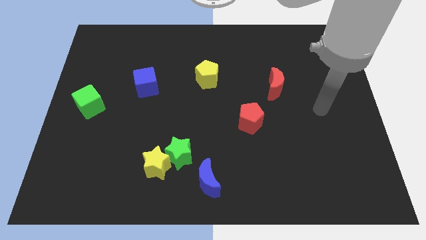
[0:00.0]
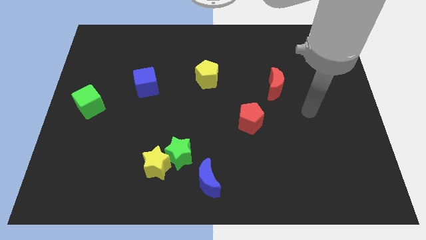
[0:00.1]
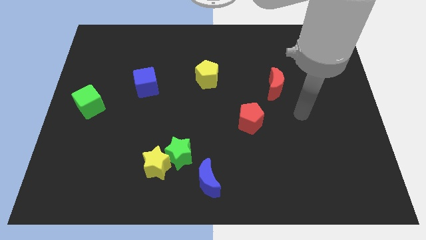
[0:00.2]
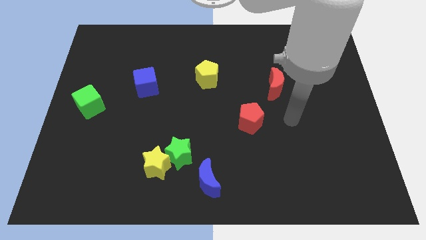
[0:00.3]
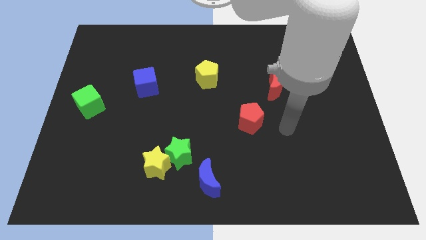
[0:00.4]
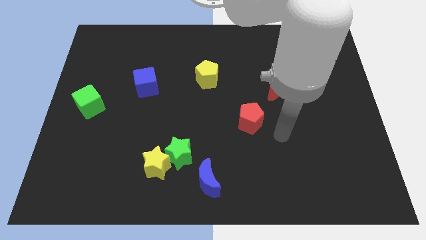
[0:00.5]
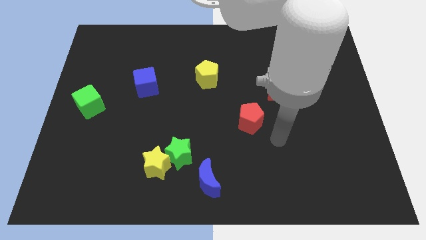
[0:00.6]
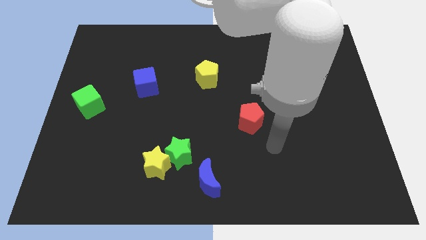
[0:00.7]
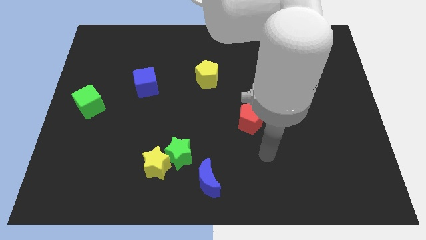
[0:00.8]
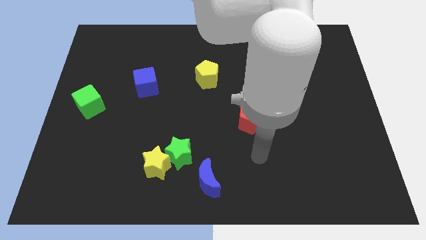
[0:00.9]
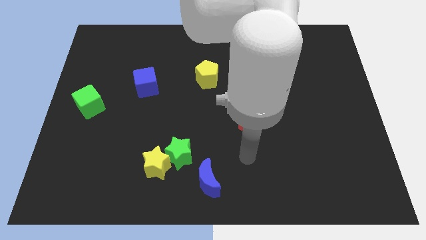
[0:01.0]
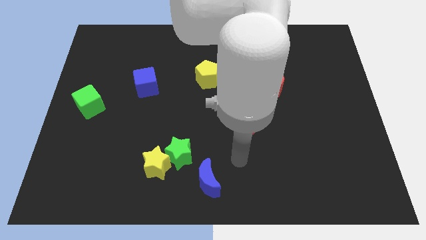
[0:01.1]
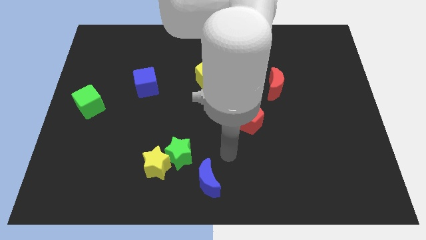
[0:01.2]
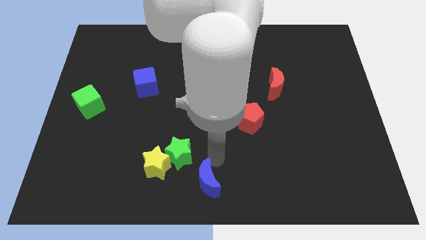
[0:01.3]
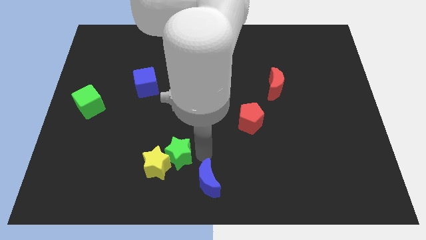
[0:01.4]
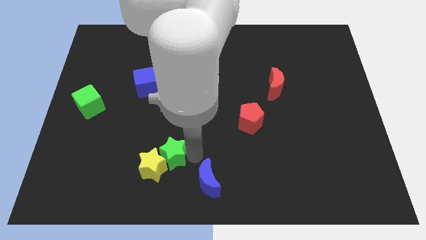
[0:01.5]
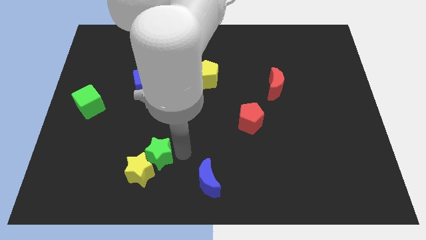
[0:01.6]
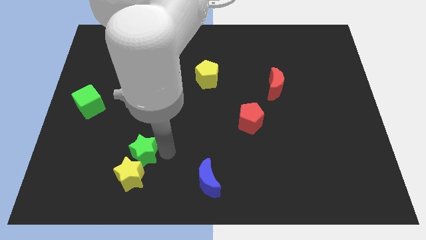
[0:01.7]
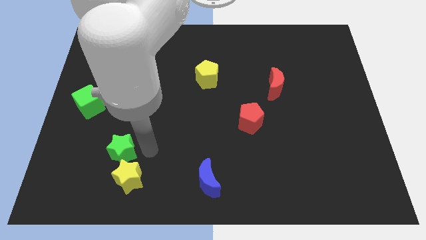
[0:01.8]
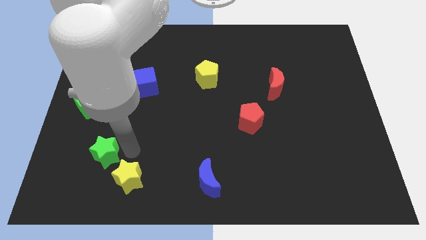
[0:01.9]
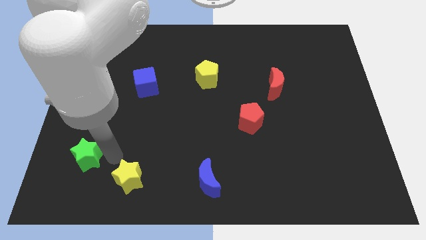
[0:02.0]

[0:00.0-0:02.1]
move the yellow star away from the green star

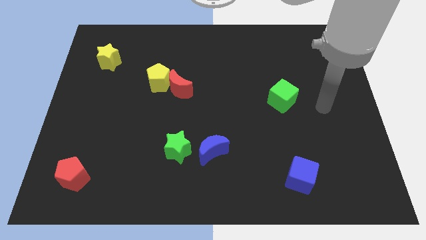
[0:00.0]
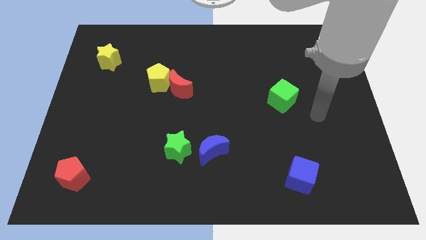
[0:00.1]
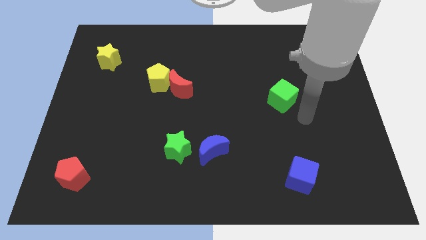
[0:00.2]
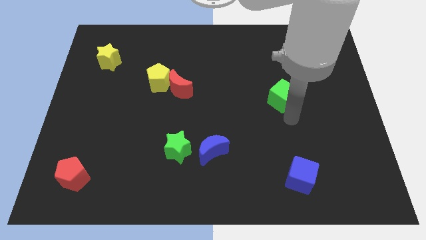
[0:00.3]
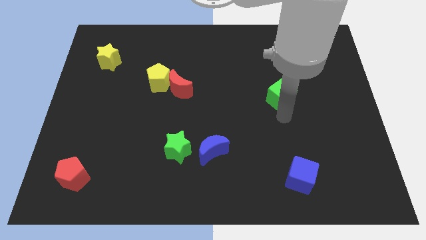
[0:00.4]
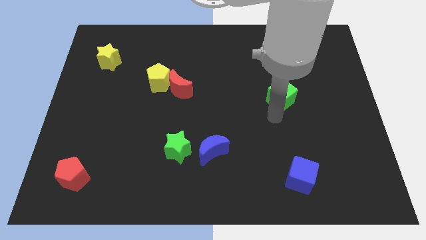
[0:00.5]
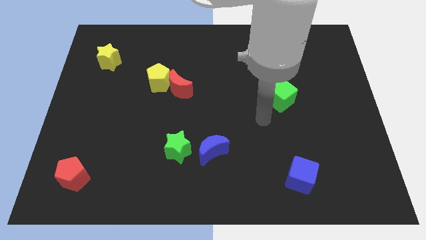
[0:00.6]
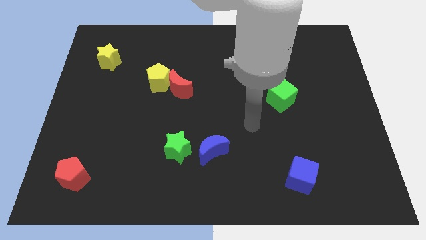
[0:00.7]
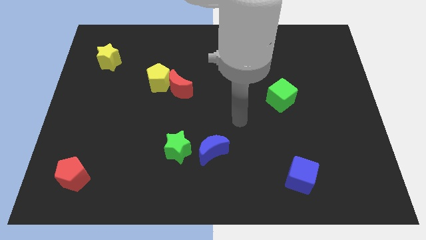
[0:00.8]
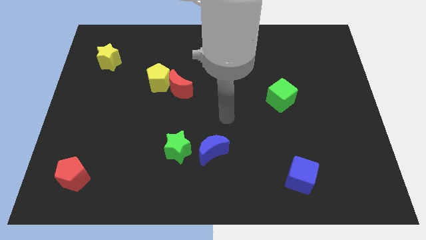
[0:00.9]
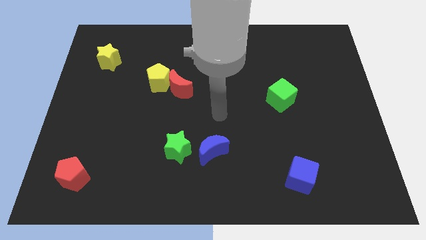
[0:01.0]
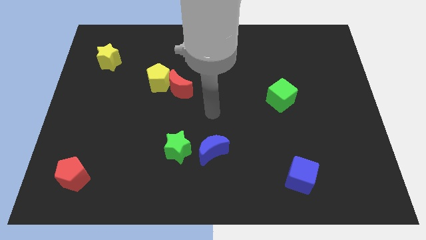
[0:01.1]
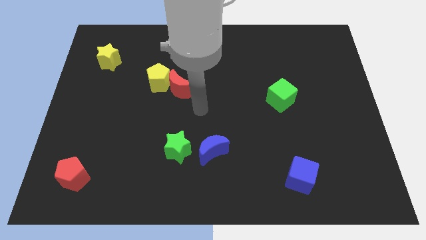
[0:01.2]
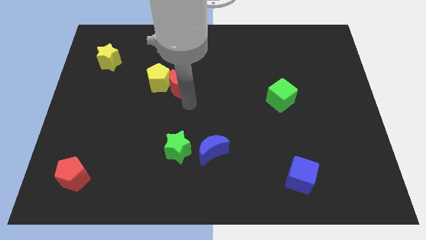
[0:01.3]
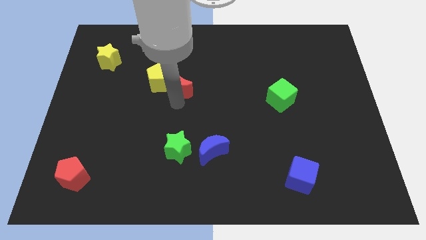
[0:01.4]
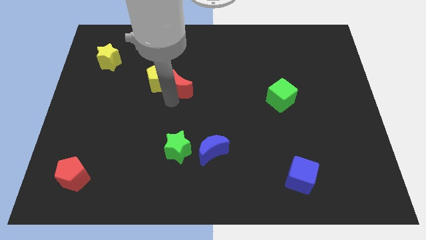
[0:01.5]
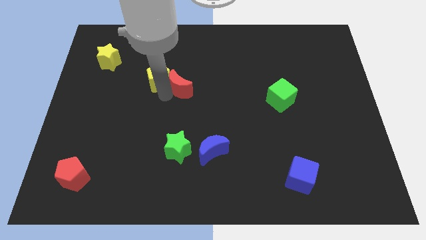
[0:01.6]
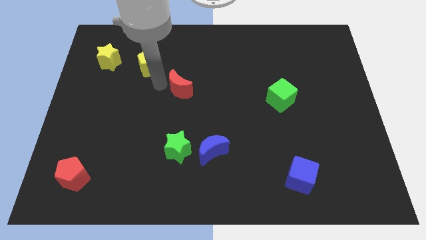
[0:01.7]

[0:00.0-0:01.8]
pull the red moon apart from the yellow pentagon

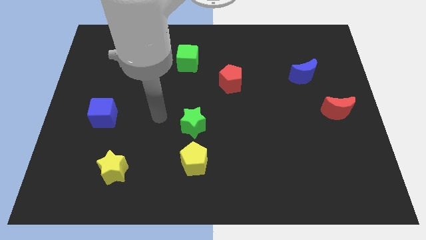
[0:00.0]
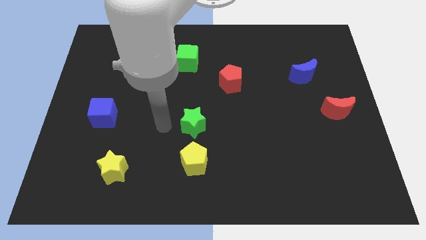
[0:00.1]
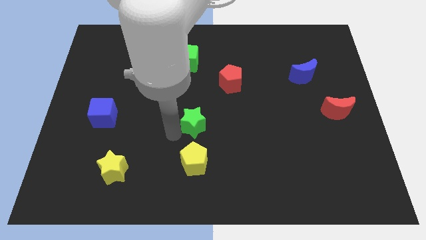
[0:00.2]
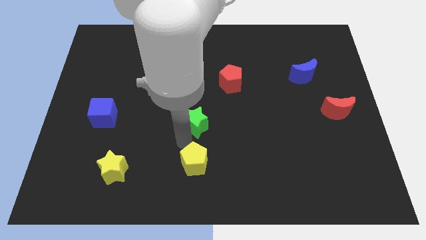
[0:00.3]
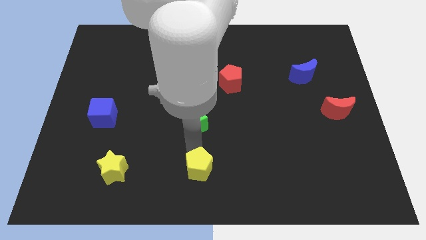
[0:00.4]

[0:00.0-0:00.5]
separate the green star from the yellow pentagon

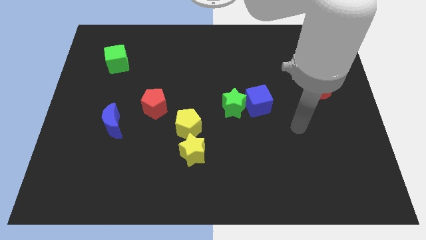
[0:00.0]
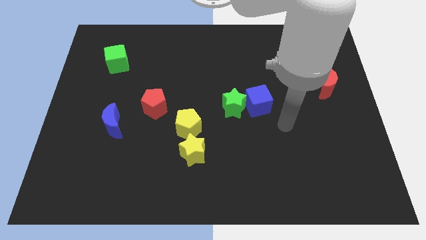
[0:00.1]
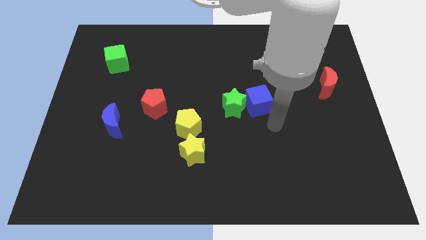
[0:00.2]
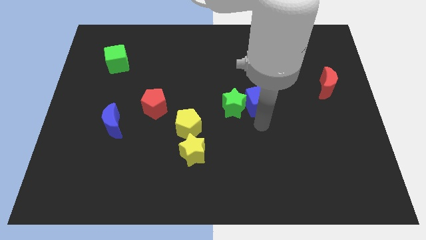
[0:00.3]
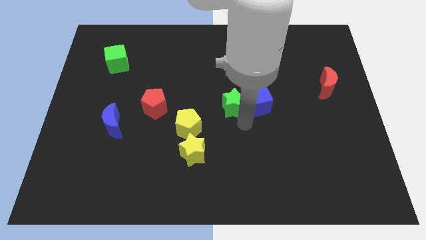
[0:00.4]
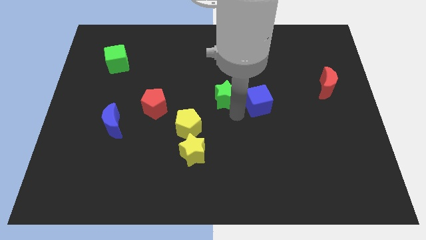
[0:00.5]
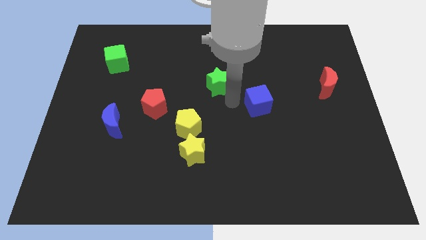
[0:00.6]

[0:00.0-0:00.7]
separate the blue cube from the green star

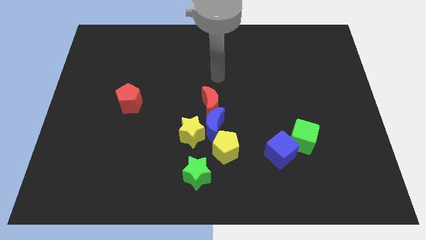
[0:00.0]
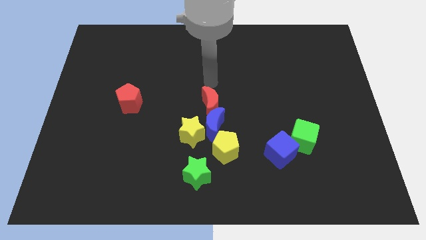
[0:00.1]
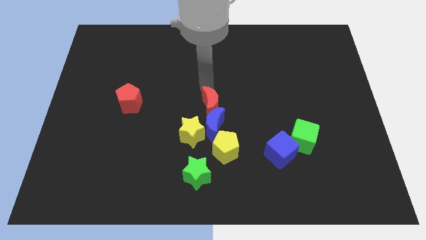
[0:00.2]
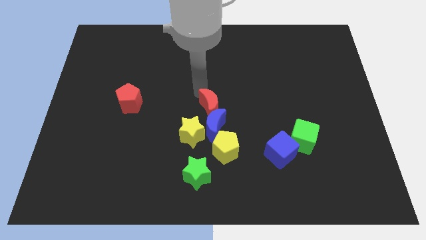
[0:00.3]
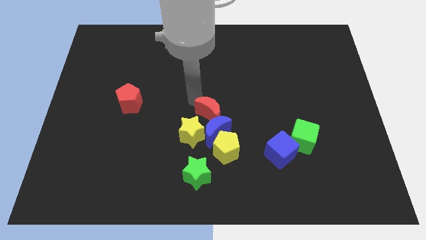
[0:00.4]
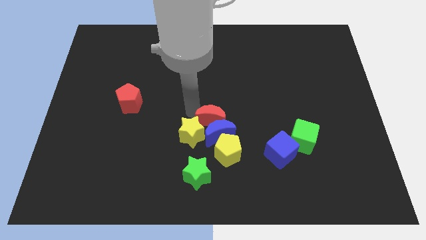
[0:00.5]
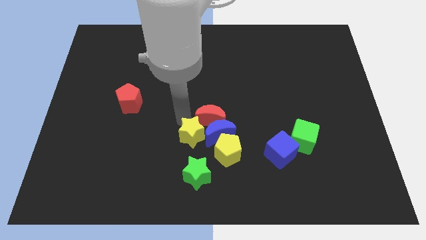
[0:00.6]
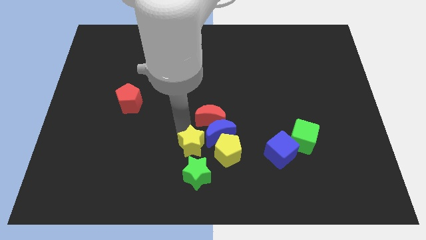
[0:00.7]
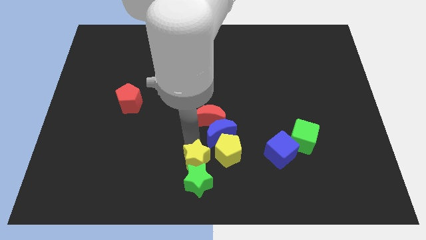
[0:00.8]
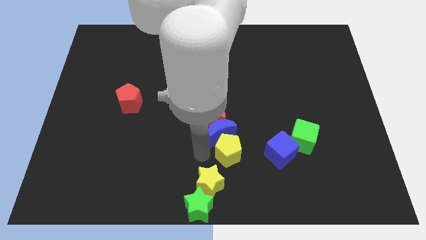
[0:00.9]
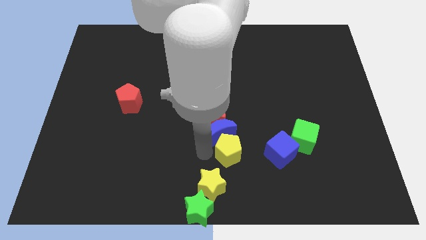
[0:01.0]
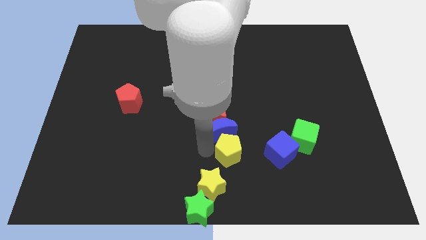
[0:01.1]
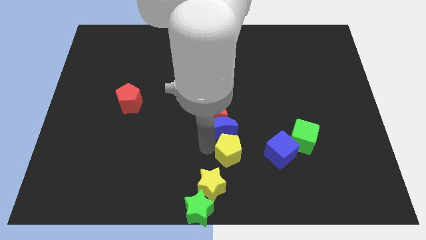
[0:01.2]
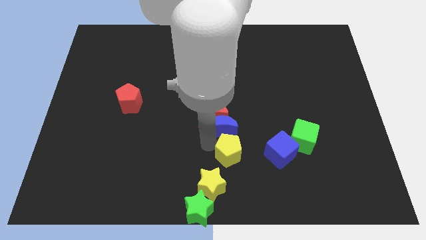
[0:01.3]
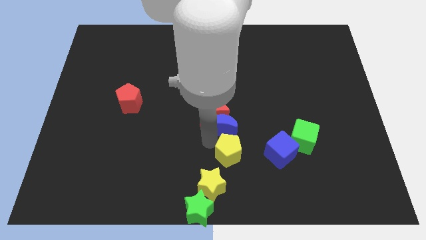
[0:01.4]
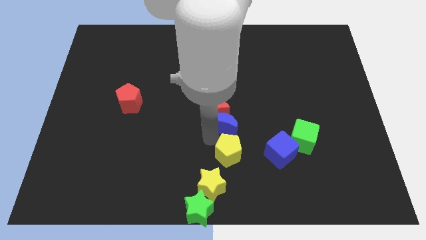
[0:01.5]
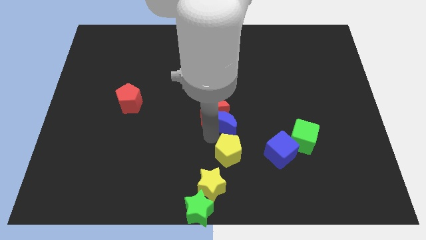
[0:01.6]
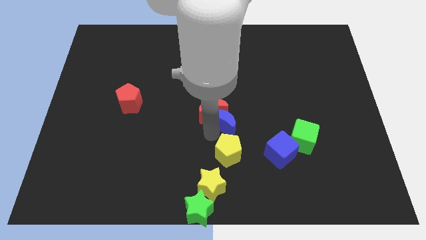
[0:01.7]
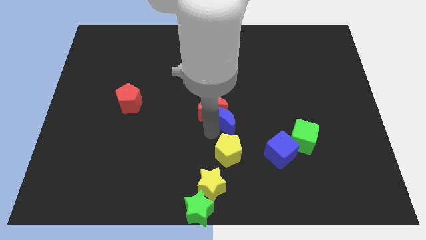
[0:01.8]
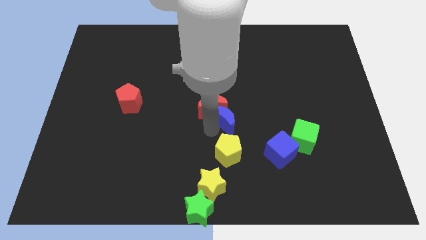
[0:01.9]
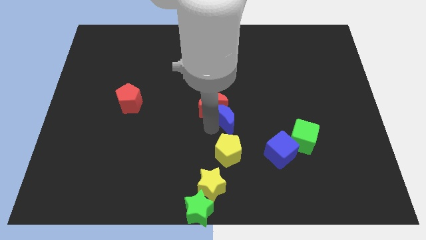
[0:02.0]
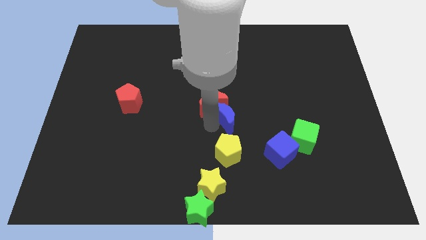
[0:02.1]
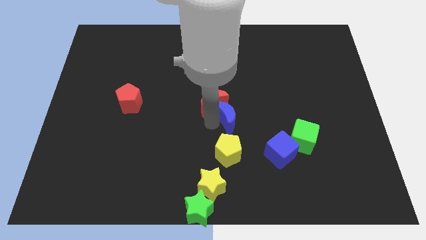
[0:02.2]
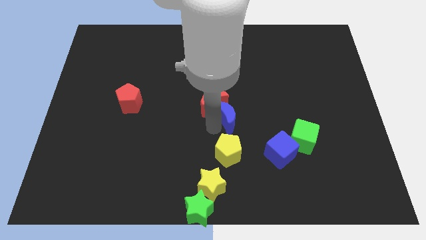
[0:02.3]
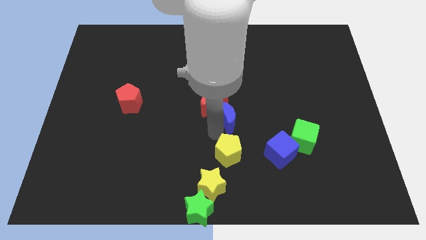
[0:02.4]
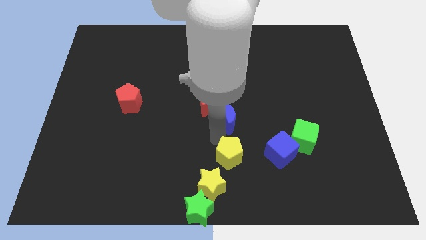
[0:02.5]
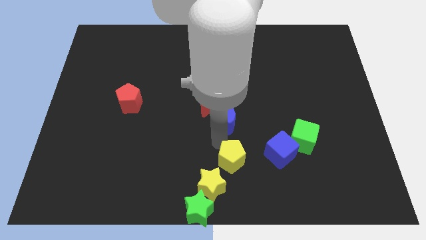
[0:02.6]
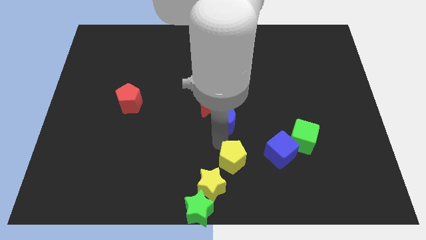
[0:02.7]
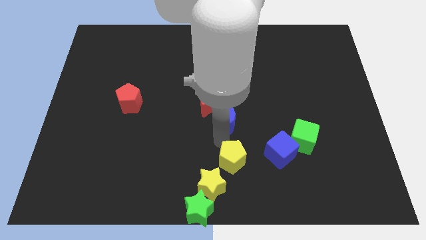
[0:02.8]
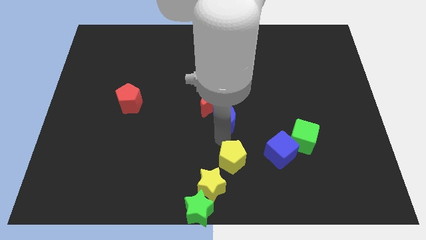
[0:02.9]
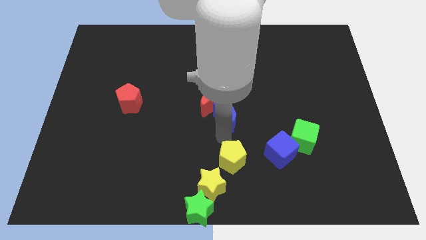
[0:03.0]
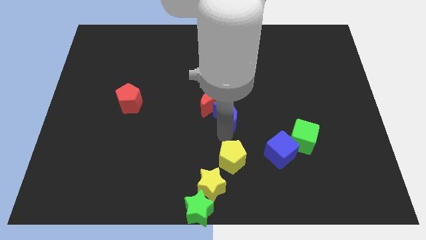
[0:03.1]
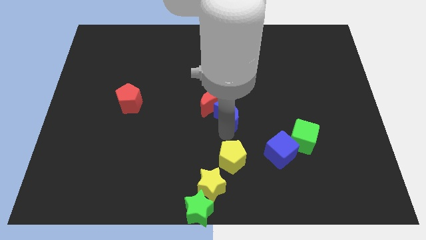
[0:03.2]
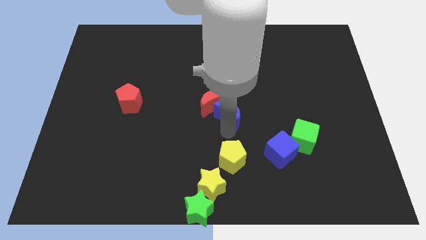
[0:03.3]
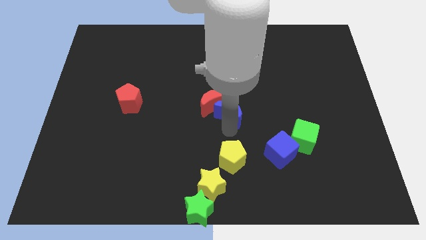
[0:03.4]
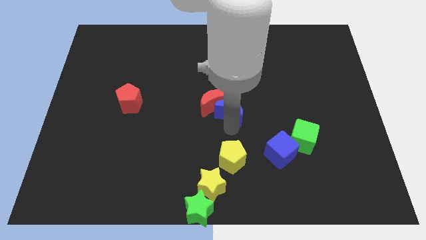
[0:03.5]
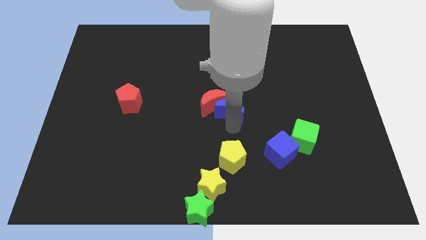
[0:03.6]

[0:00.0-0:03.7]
move the blue moon away from the clump

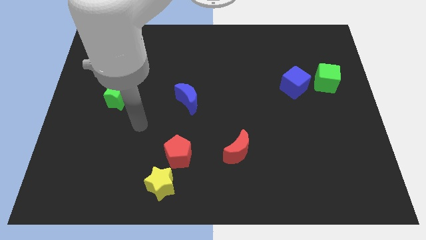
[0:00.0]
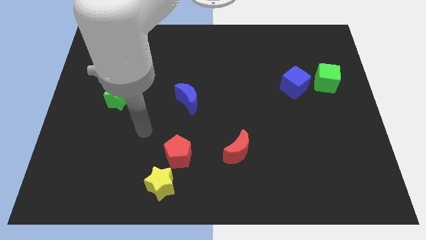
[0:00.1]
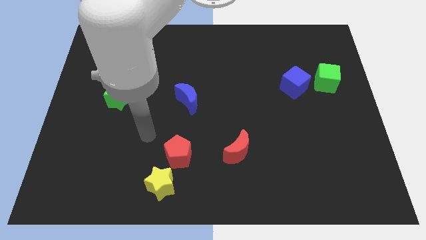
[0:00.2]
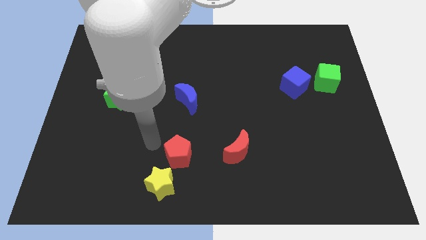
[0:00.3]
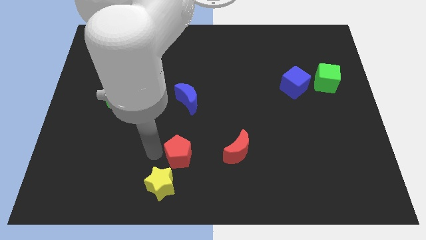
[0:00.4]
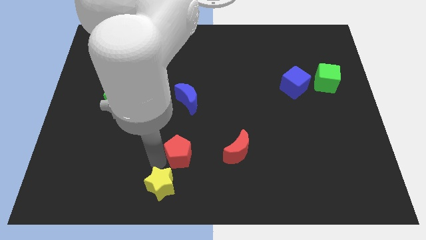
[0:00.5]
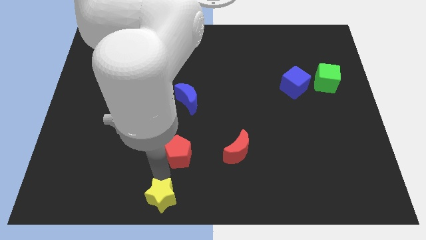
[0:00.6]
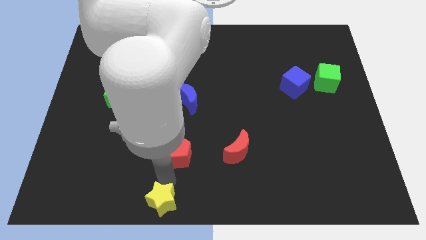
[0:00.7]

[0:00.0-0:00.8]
separate the red pentagon from the yellow star
